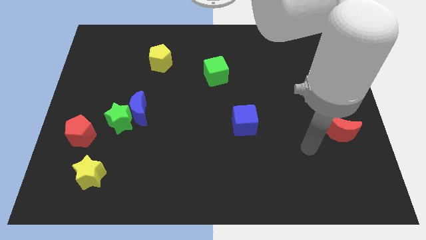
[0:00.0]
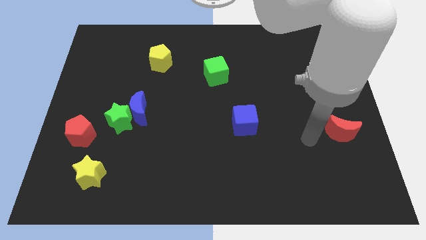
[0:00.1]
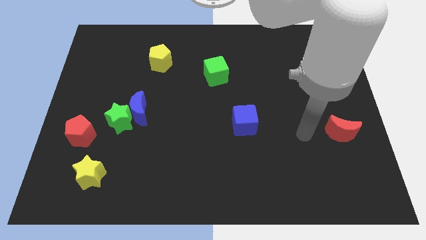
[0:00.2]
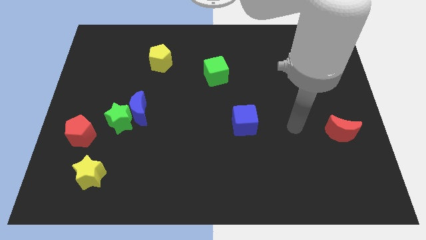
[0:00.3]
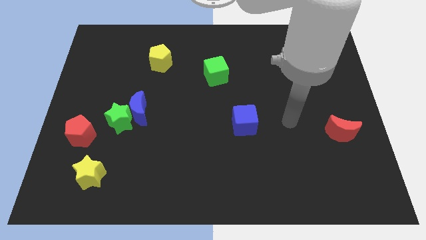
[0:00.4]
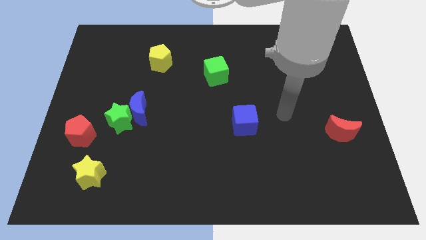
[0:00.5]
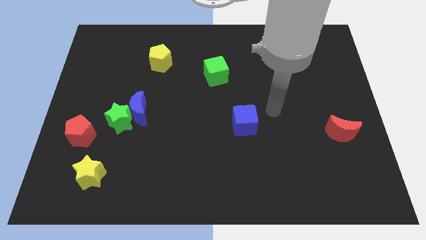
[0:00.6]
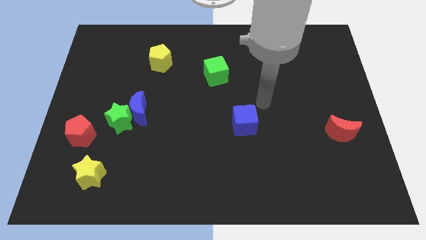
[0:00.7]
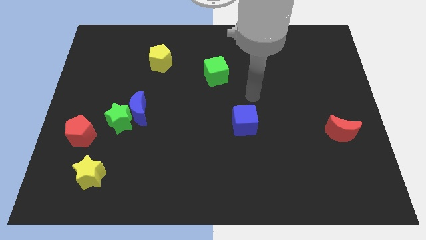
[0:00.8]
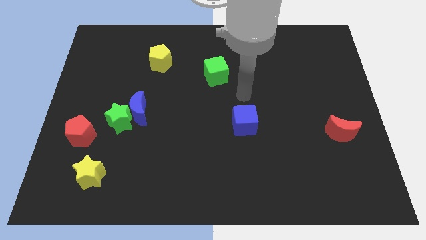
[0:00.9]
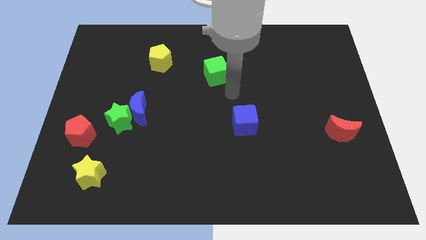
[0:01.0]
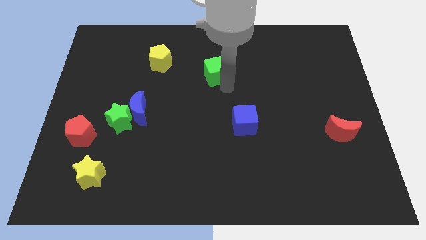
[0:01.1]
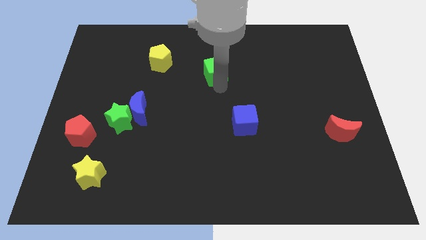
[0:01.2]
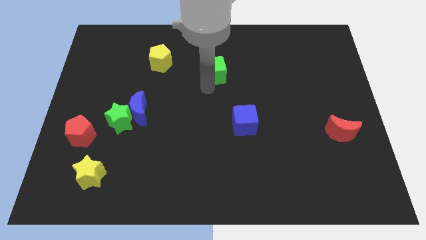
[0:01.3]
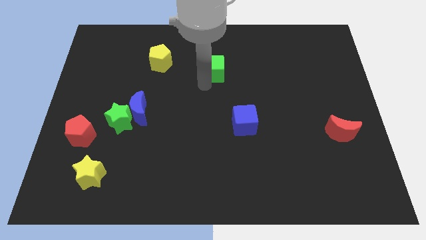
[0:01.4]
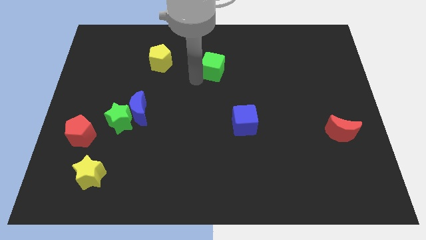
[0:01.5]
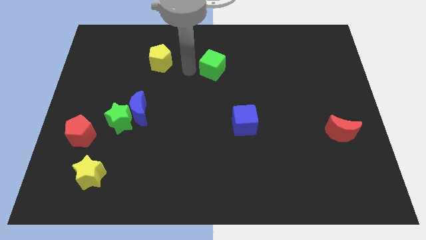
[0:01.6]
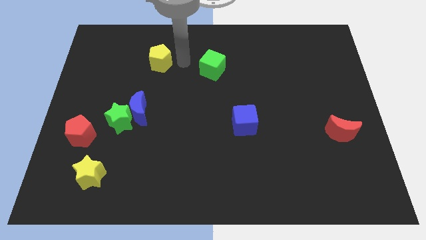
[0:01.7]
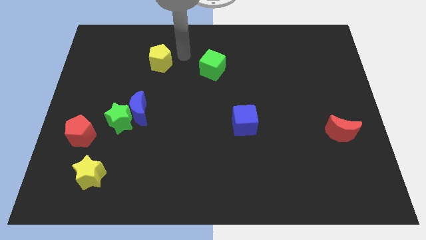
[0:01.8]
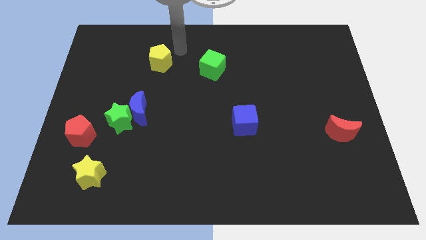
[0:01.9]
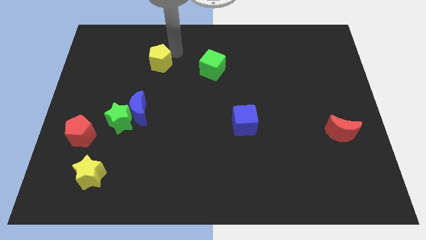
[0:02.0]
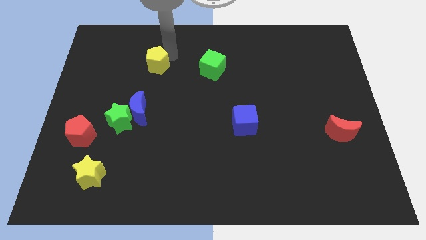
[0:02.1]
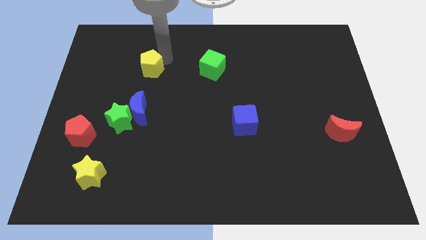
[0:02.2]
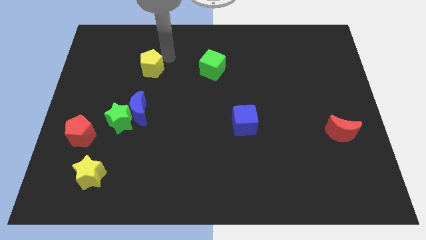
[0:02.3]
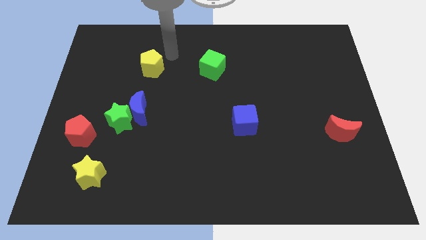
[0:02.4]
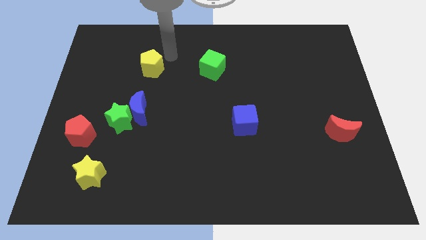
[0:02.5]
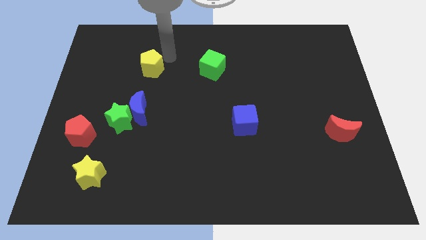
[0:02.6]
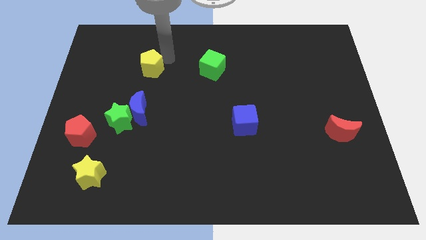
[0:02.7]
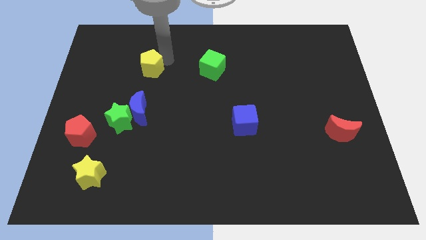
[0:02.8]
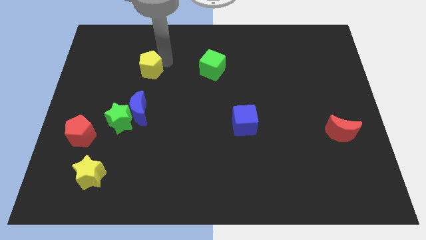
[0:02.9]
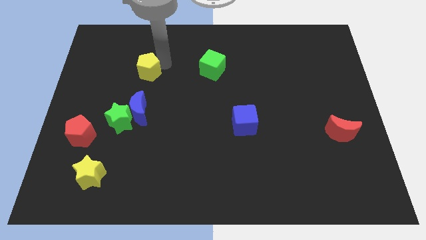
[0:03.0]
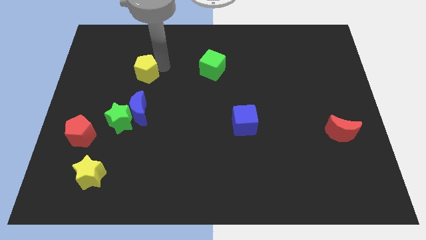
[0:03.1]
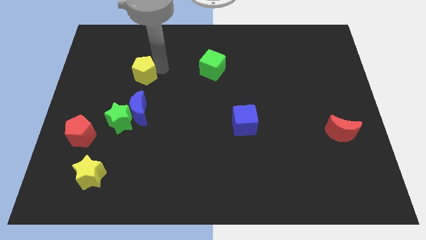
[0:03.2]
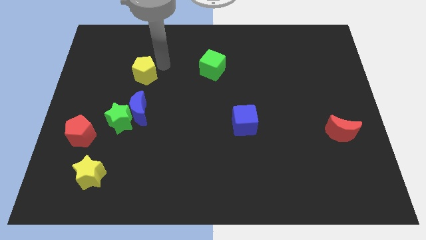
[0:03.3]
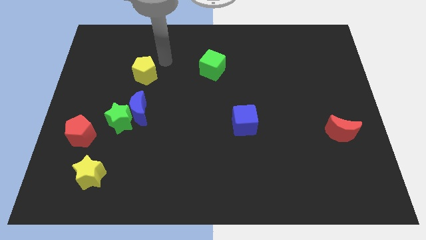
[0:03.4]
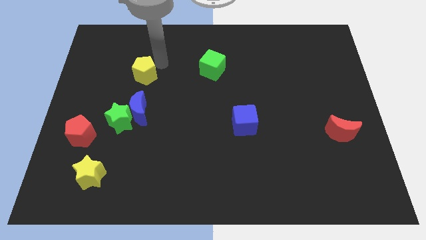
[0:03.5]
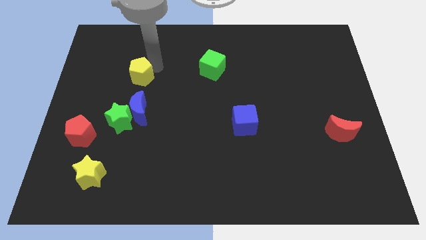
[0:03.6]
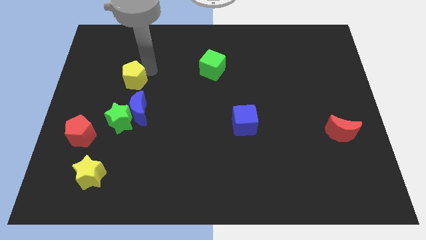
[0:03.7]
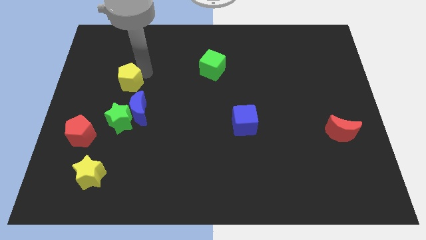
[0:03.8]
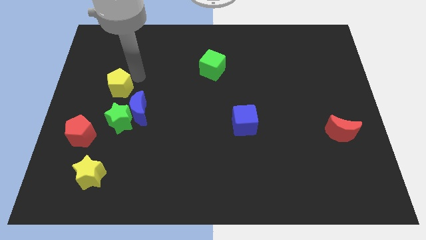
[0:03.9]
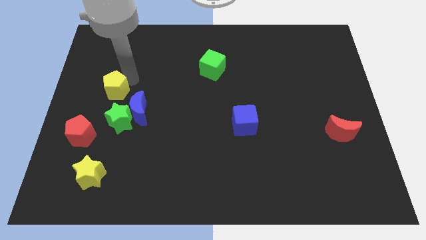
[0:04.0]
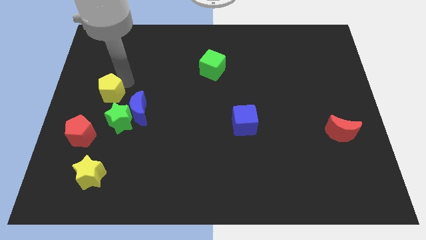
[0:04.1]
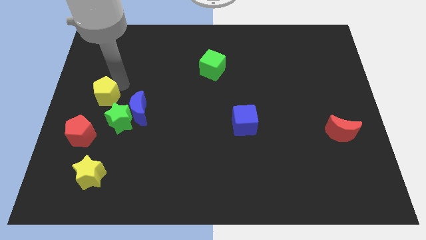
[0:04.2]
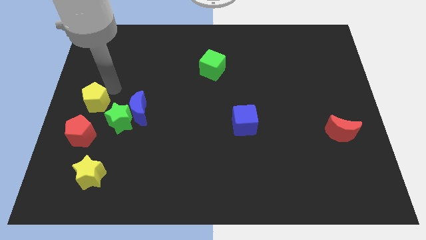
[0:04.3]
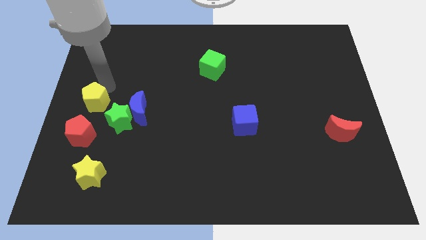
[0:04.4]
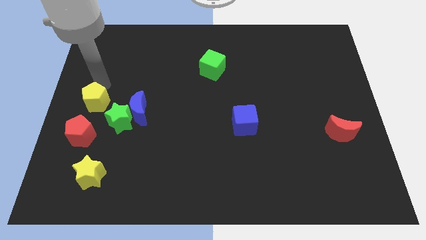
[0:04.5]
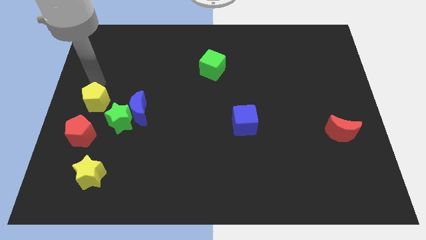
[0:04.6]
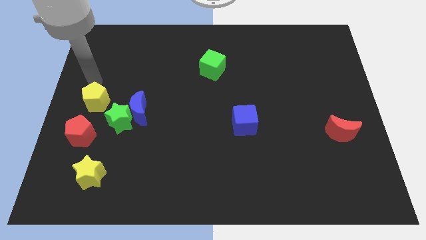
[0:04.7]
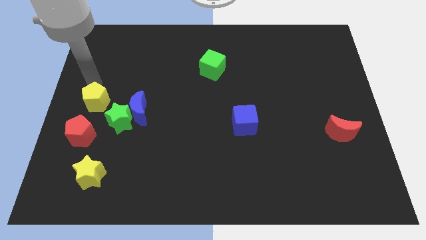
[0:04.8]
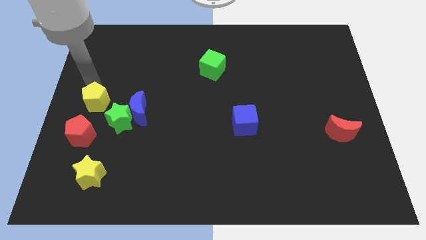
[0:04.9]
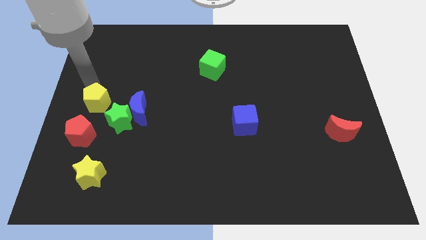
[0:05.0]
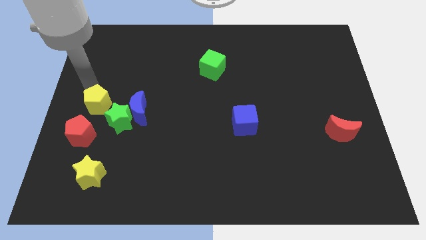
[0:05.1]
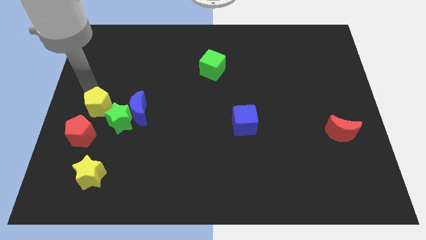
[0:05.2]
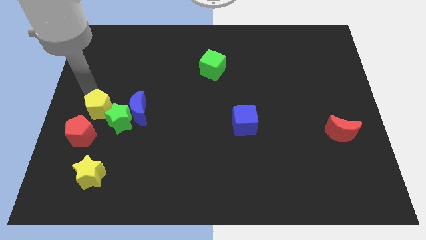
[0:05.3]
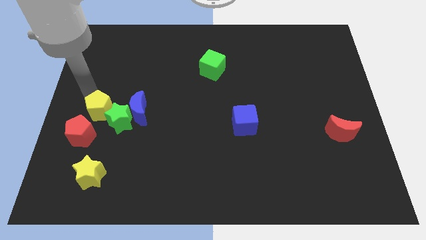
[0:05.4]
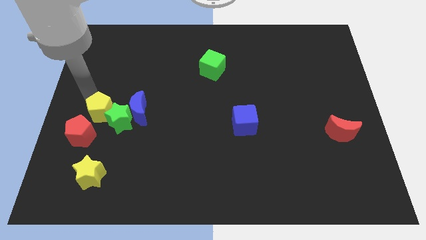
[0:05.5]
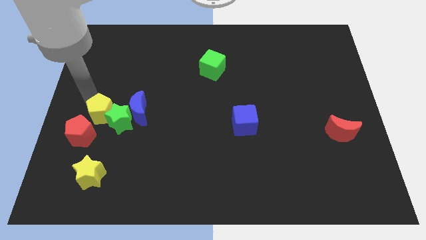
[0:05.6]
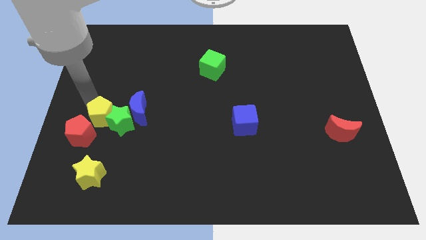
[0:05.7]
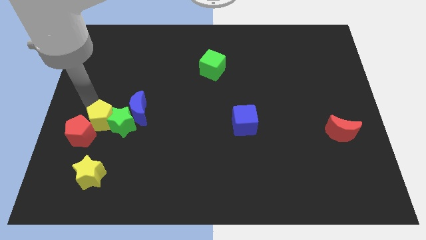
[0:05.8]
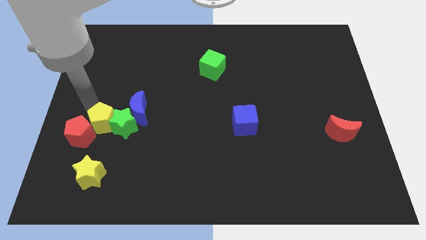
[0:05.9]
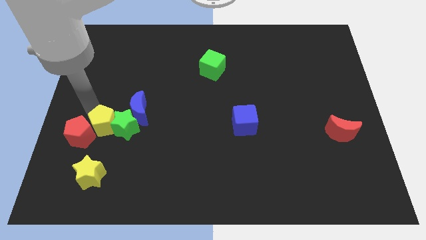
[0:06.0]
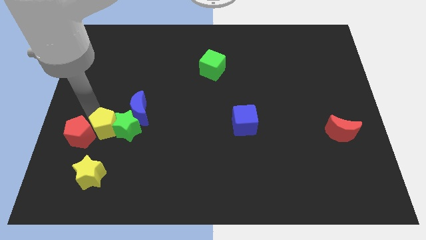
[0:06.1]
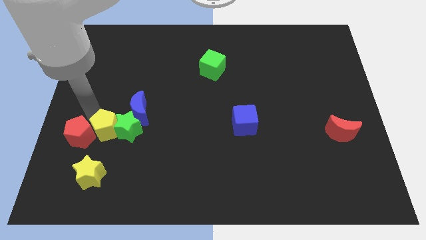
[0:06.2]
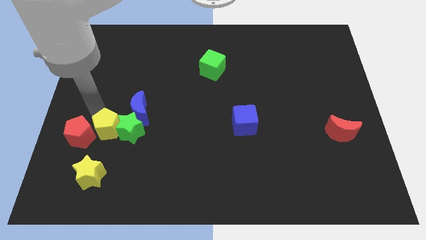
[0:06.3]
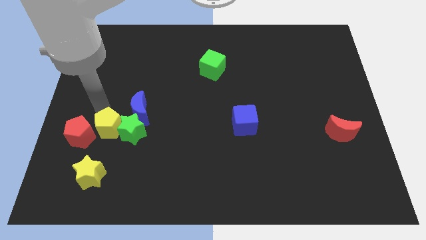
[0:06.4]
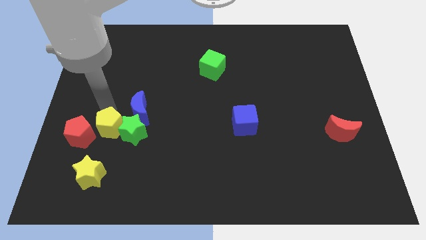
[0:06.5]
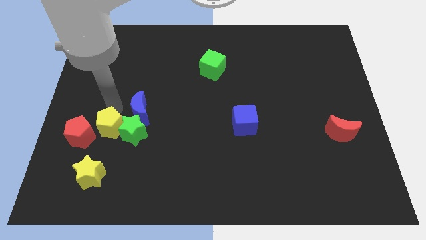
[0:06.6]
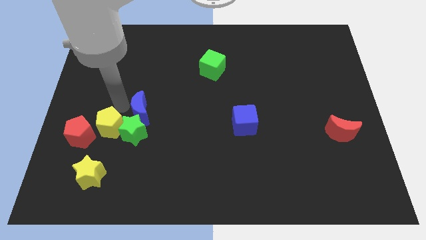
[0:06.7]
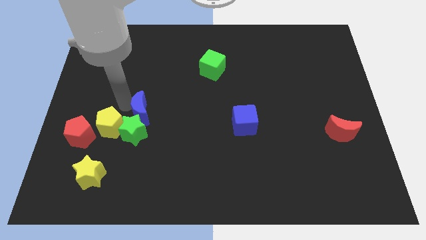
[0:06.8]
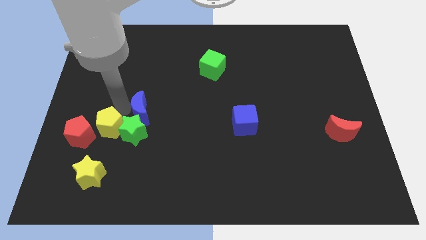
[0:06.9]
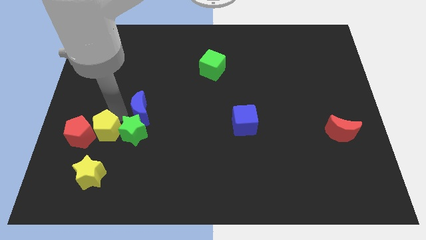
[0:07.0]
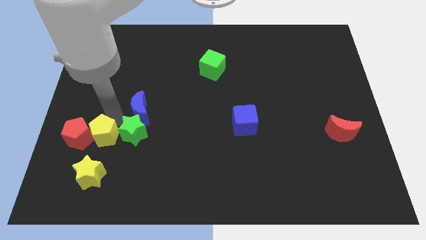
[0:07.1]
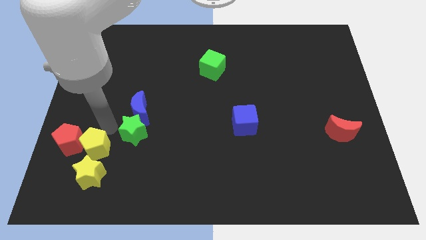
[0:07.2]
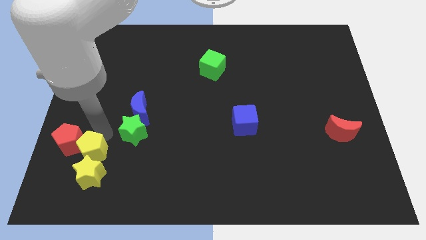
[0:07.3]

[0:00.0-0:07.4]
move the yellow pentagon to the yellow star
